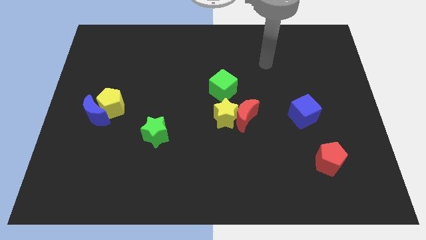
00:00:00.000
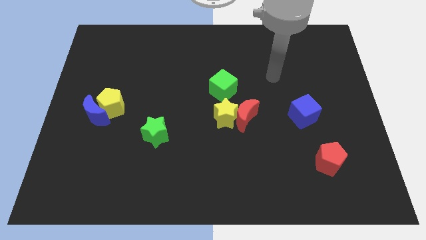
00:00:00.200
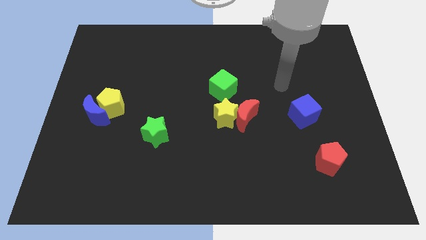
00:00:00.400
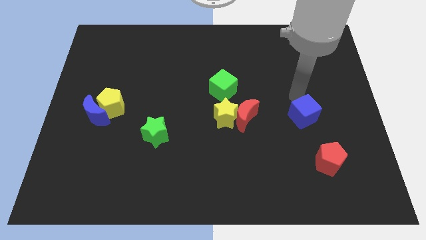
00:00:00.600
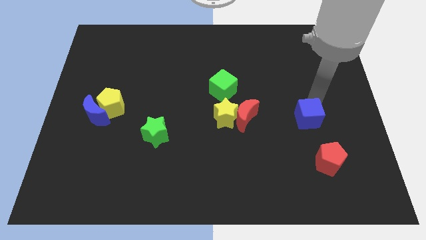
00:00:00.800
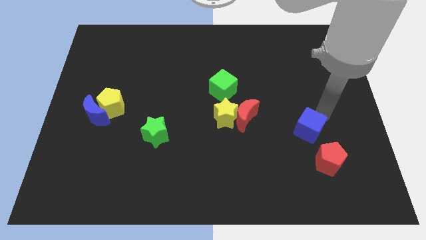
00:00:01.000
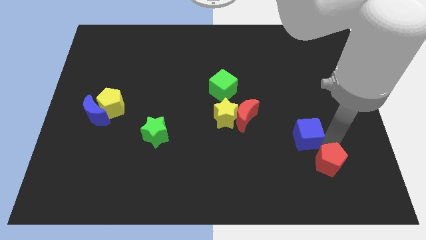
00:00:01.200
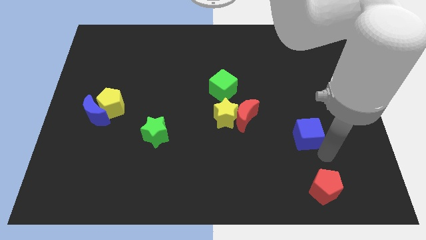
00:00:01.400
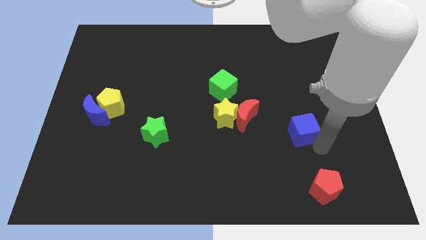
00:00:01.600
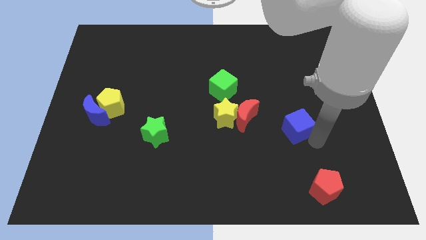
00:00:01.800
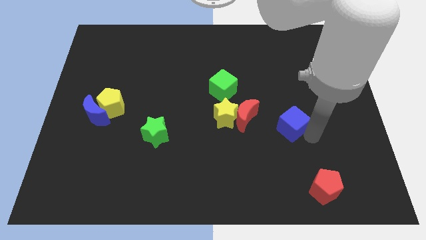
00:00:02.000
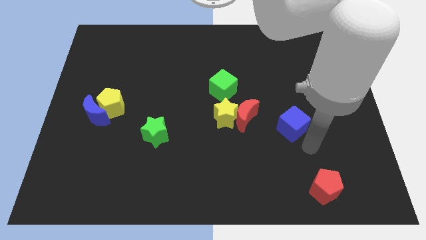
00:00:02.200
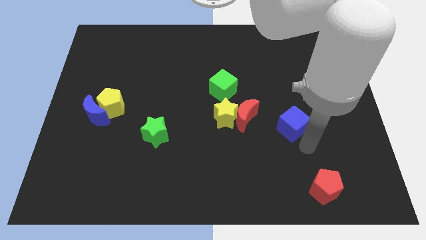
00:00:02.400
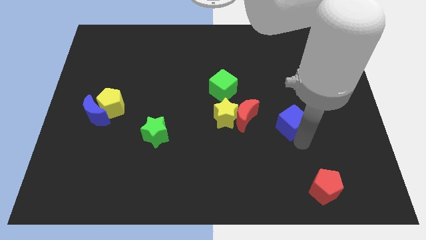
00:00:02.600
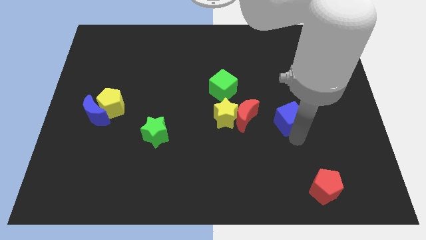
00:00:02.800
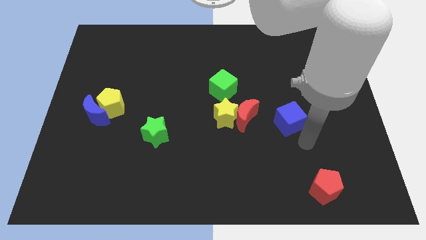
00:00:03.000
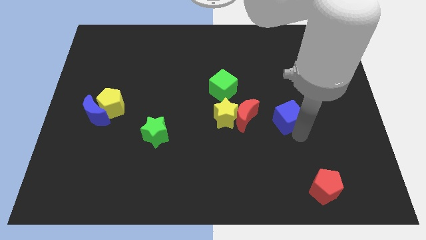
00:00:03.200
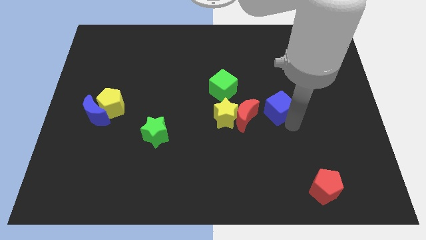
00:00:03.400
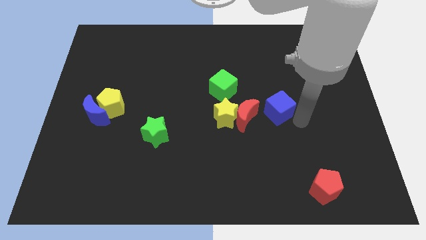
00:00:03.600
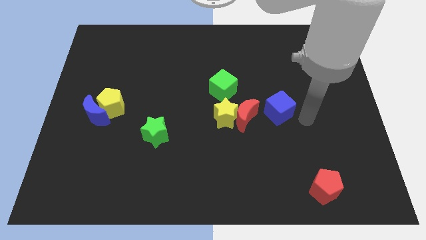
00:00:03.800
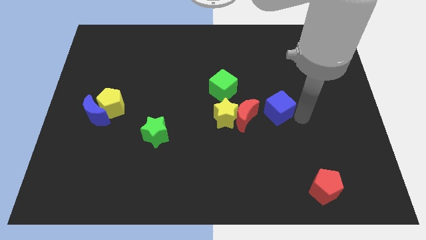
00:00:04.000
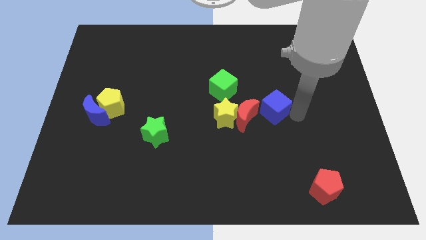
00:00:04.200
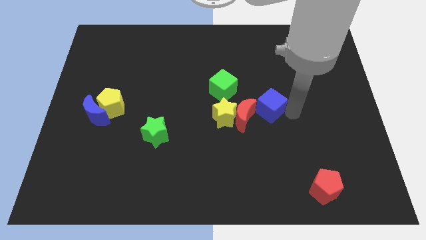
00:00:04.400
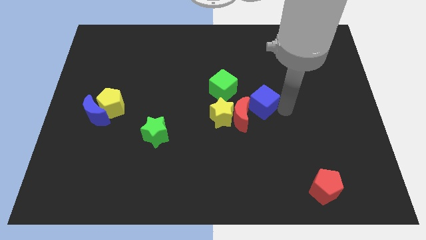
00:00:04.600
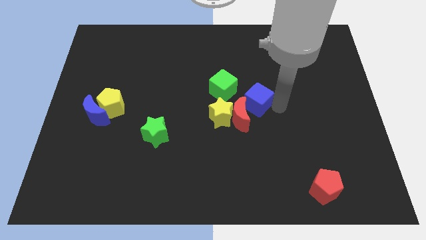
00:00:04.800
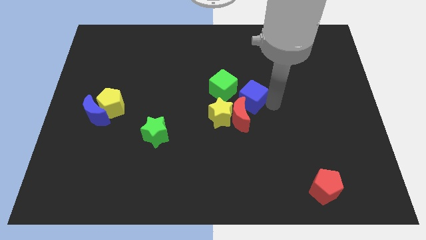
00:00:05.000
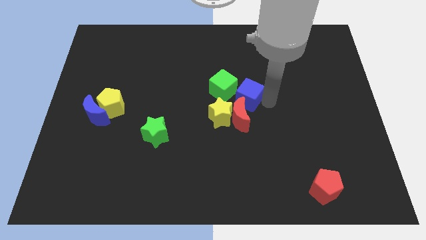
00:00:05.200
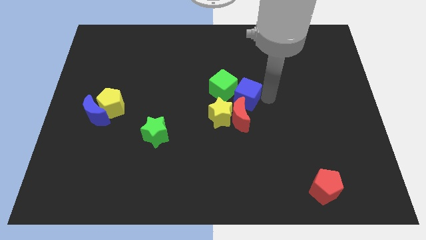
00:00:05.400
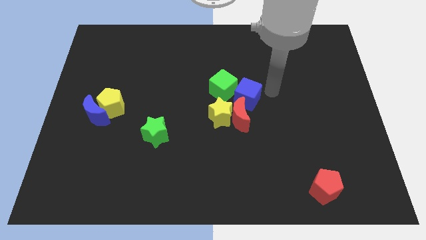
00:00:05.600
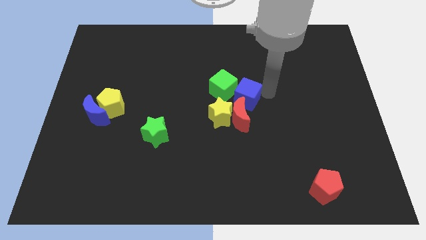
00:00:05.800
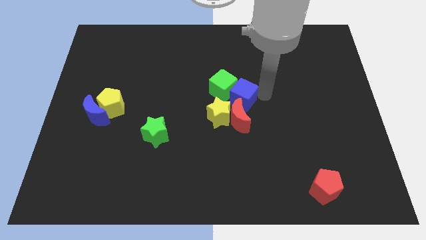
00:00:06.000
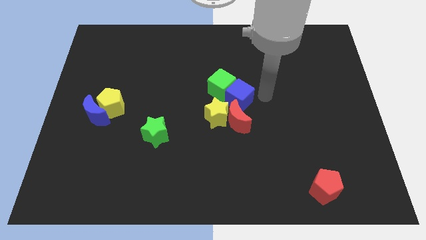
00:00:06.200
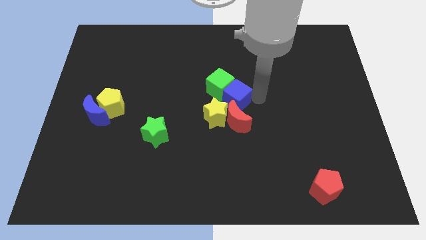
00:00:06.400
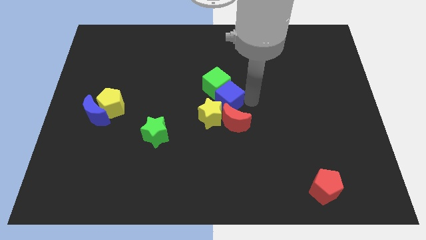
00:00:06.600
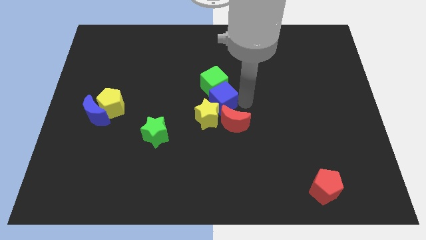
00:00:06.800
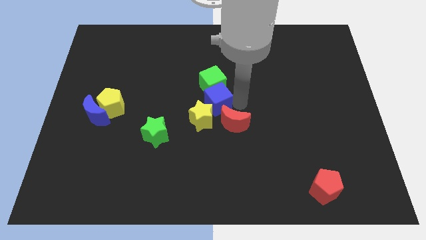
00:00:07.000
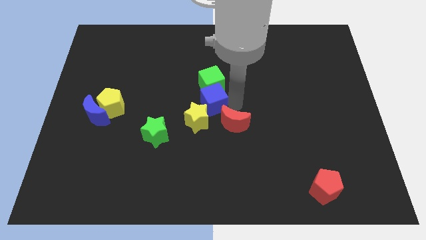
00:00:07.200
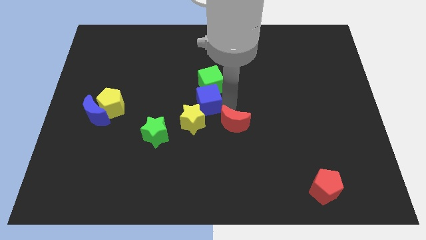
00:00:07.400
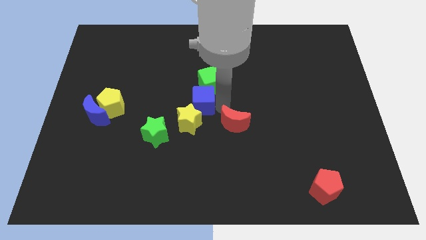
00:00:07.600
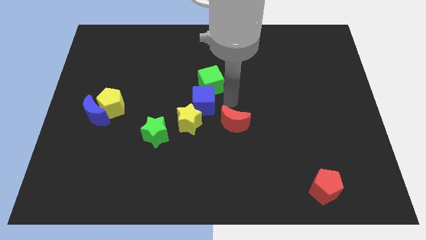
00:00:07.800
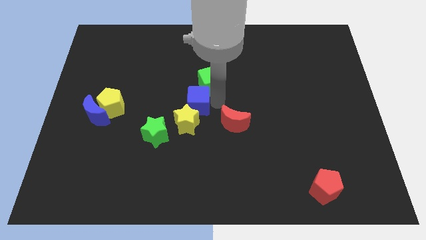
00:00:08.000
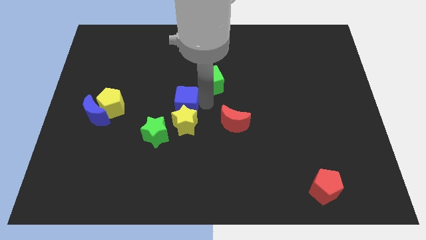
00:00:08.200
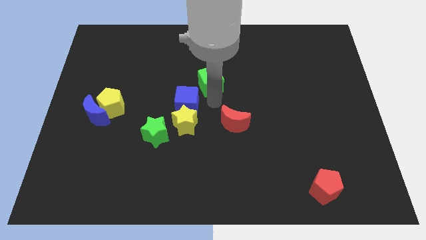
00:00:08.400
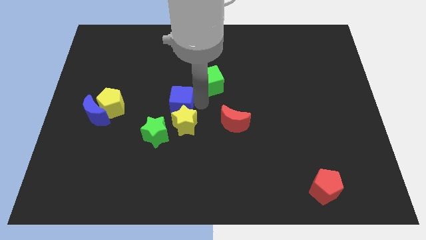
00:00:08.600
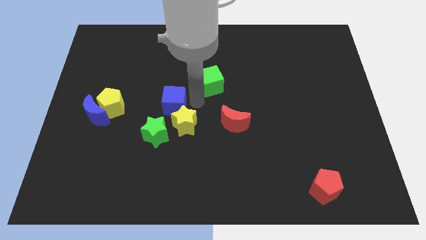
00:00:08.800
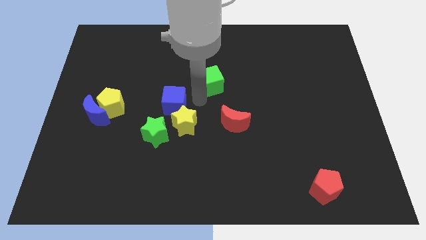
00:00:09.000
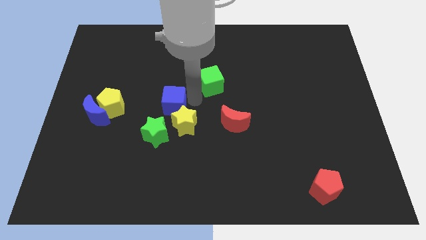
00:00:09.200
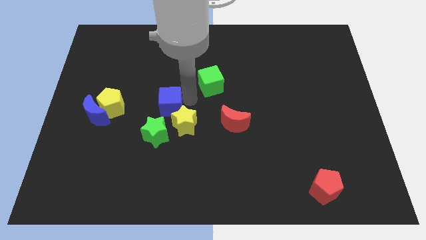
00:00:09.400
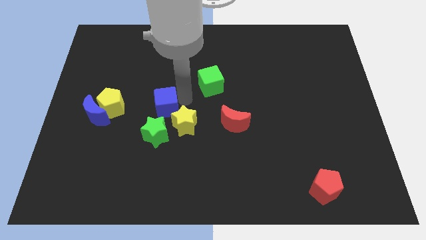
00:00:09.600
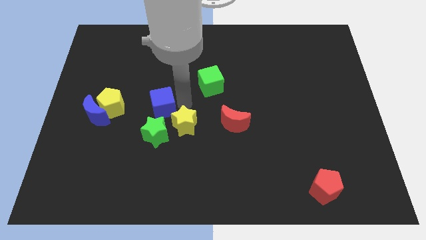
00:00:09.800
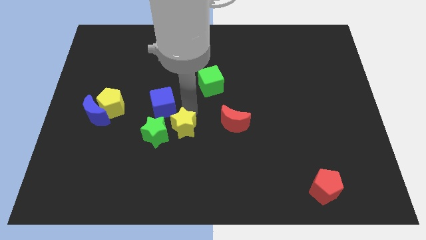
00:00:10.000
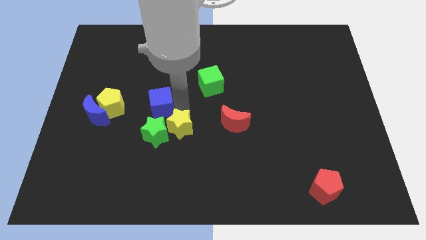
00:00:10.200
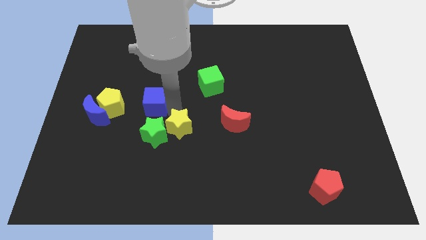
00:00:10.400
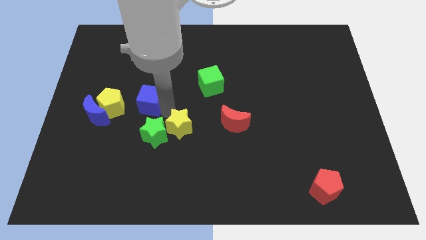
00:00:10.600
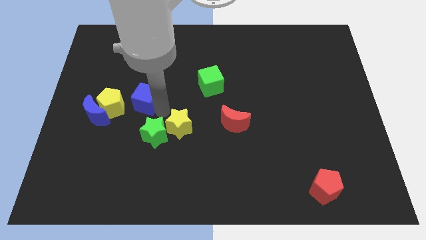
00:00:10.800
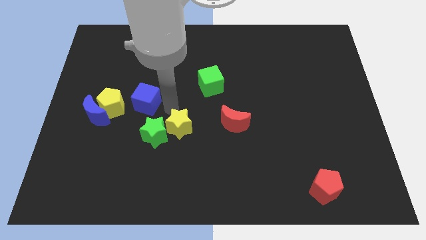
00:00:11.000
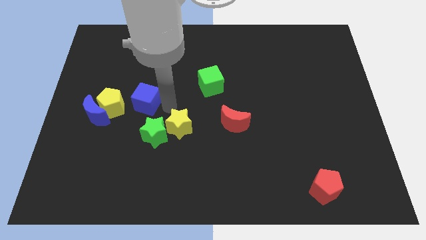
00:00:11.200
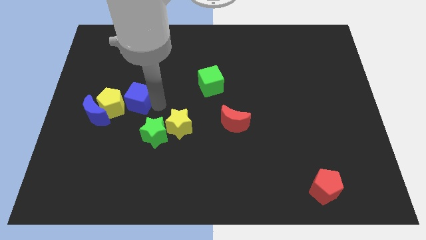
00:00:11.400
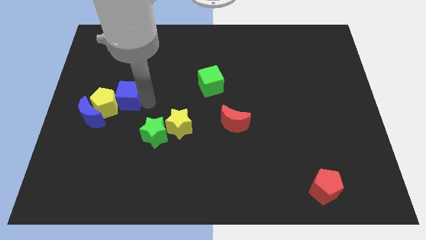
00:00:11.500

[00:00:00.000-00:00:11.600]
put the blue cube next to the yellow pentagon

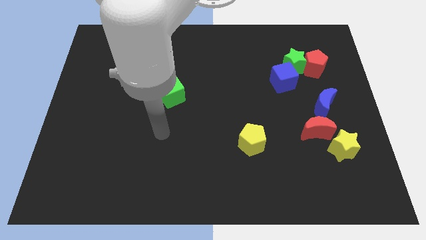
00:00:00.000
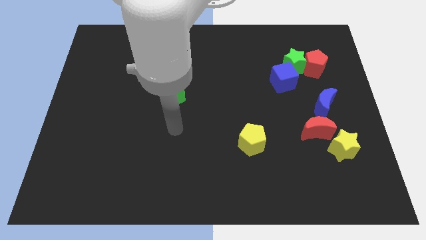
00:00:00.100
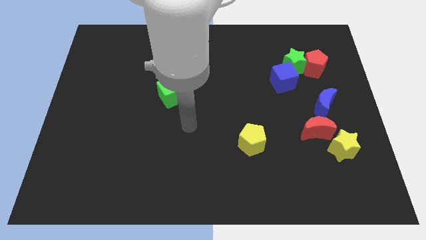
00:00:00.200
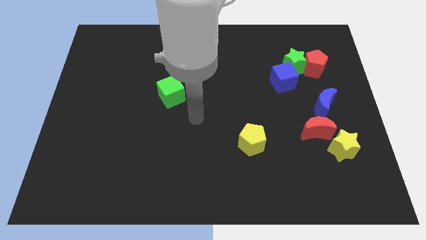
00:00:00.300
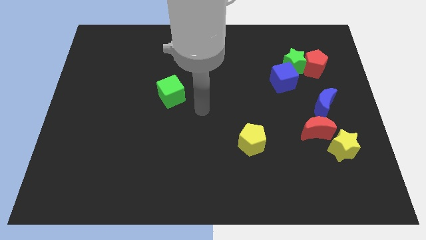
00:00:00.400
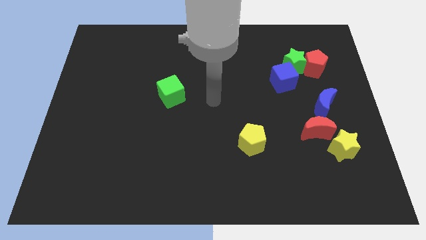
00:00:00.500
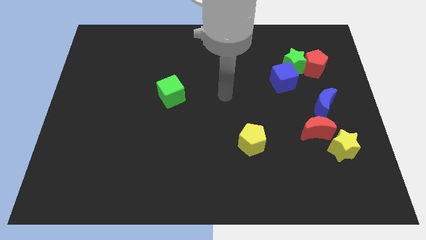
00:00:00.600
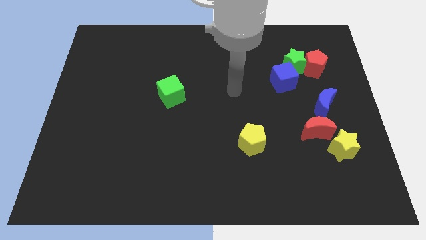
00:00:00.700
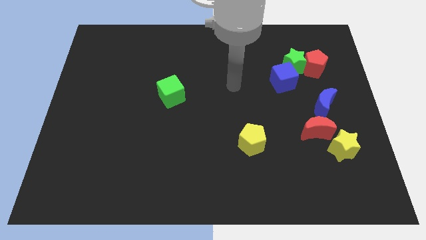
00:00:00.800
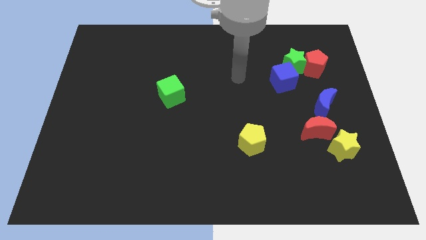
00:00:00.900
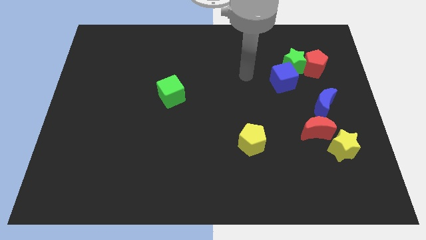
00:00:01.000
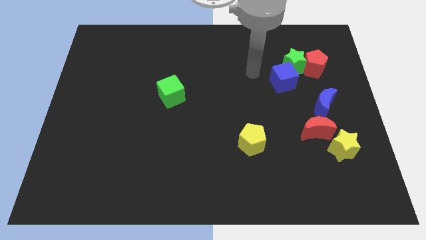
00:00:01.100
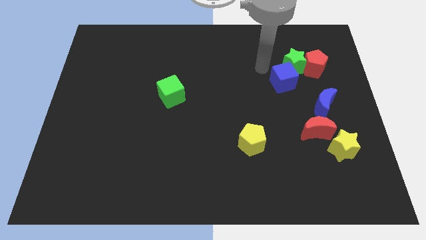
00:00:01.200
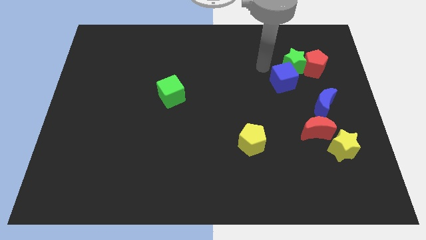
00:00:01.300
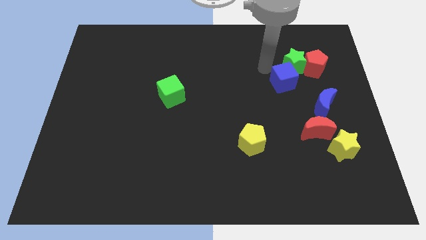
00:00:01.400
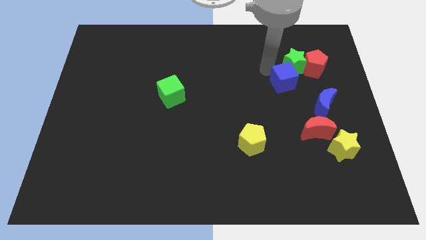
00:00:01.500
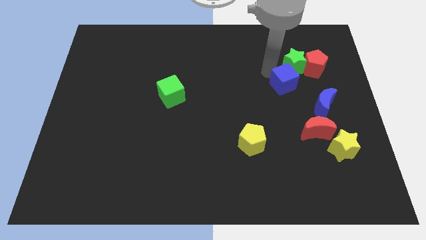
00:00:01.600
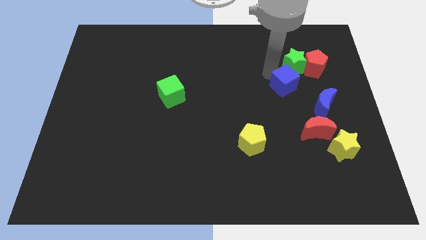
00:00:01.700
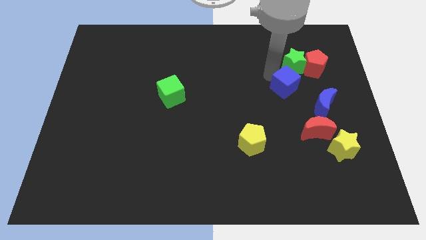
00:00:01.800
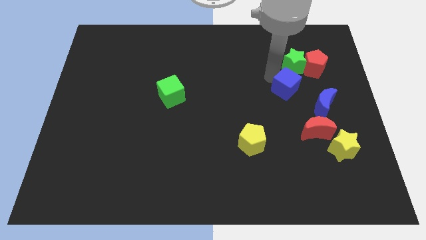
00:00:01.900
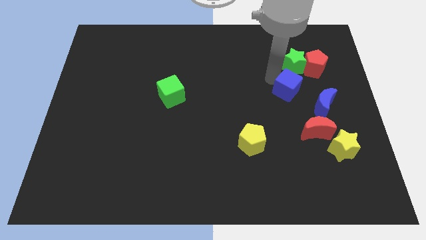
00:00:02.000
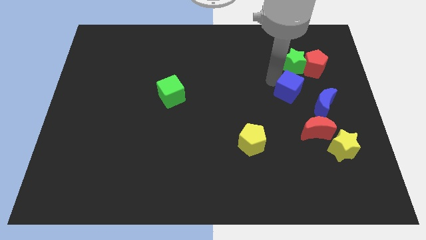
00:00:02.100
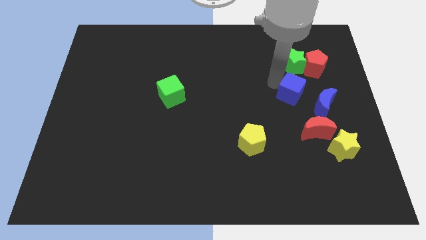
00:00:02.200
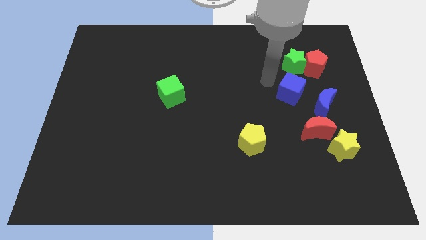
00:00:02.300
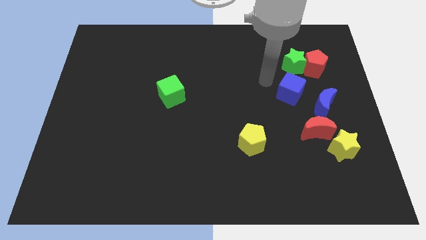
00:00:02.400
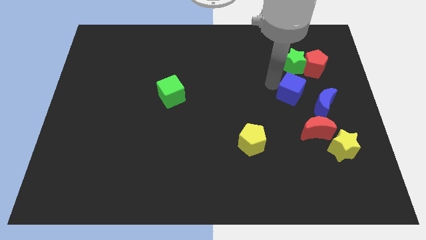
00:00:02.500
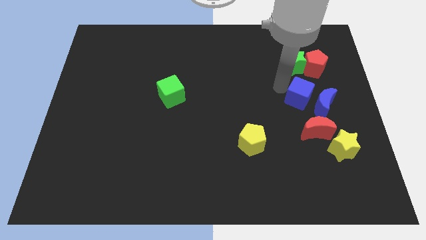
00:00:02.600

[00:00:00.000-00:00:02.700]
put the blue cube next to the blue moon
